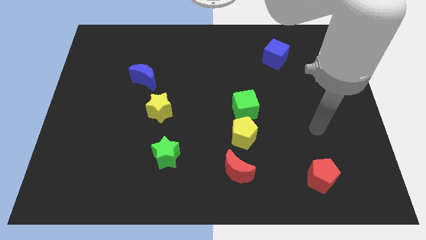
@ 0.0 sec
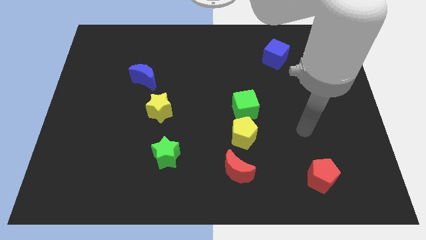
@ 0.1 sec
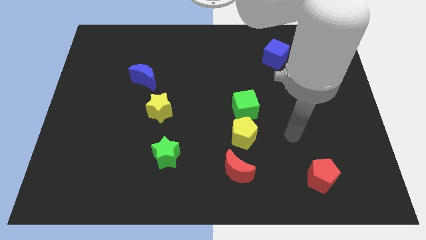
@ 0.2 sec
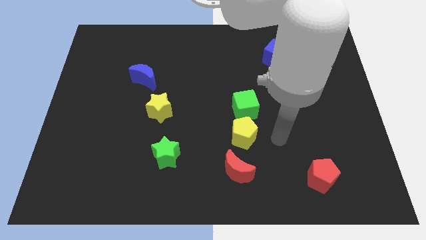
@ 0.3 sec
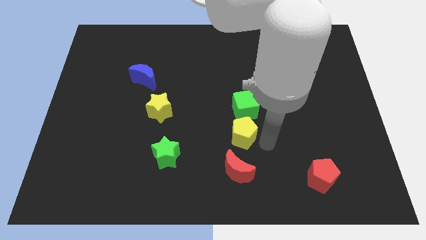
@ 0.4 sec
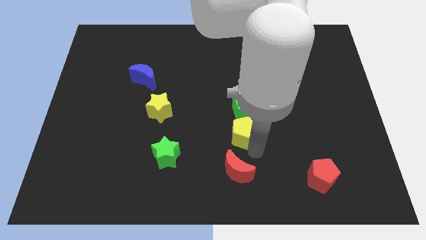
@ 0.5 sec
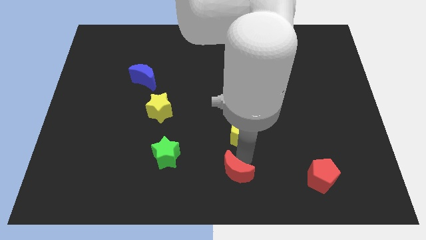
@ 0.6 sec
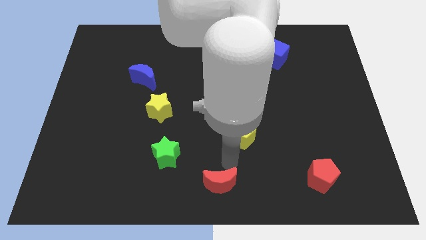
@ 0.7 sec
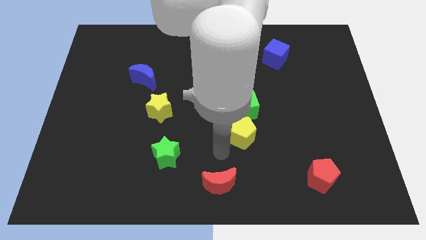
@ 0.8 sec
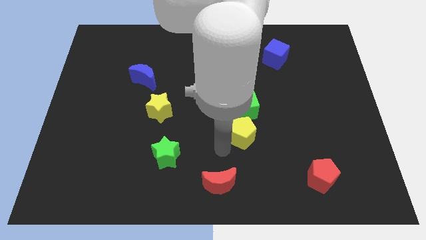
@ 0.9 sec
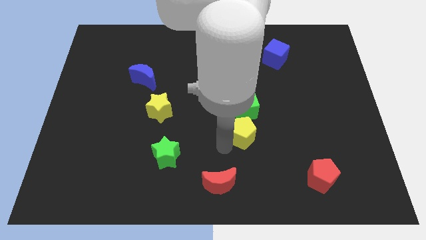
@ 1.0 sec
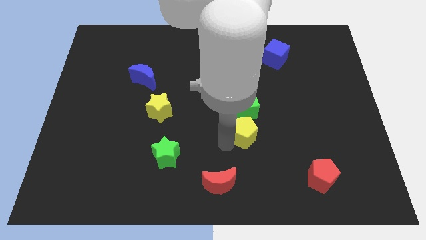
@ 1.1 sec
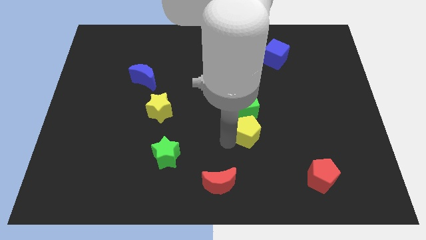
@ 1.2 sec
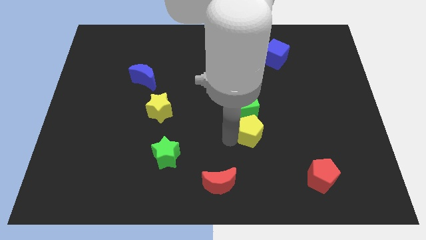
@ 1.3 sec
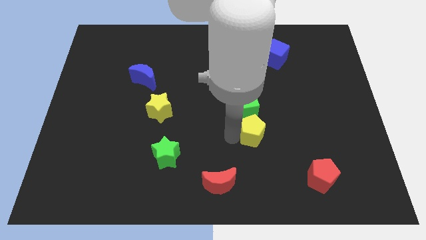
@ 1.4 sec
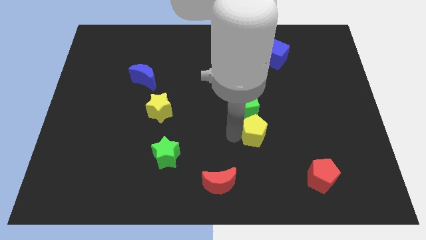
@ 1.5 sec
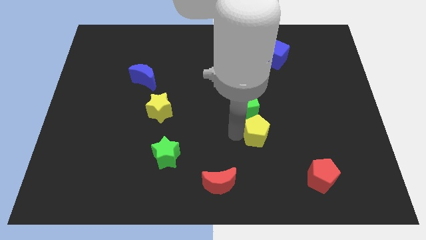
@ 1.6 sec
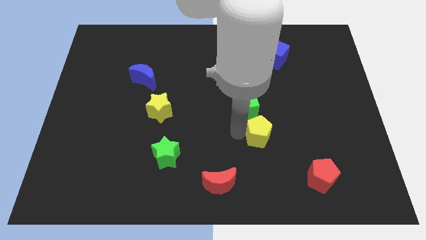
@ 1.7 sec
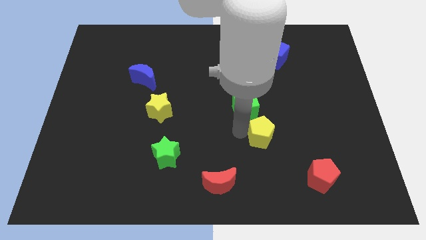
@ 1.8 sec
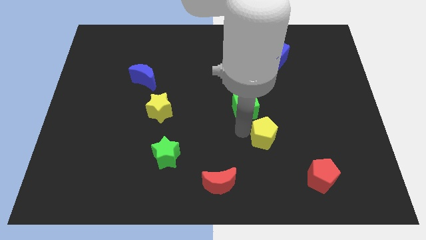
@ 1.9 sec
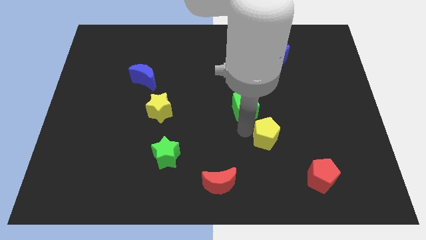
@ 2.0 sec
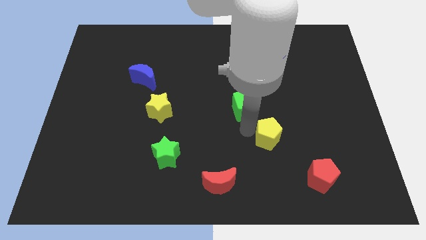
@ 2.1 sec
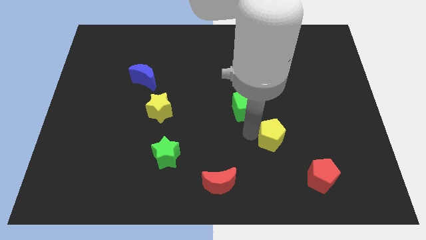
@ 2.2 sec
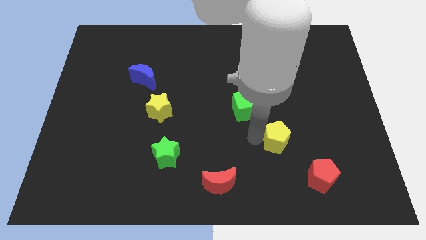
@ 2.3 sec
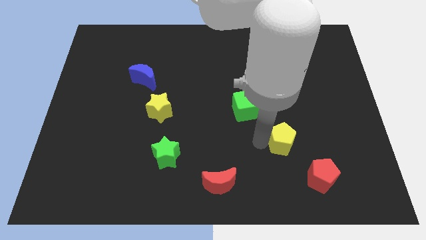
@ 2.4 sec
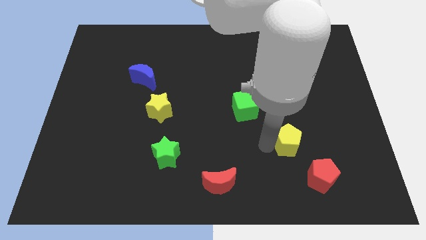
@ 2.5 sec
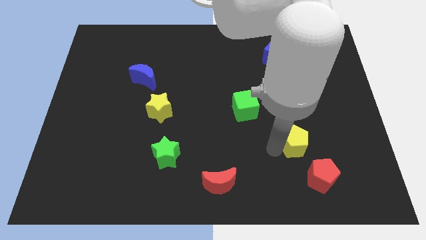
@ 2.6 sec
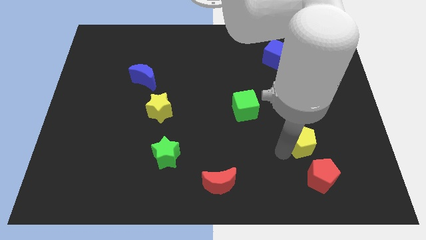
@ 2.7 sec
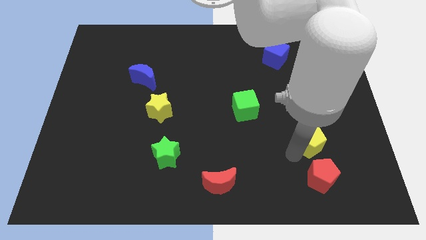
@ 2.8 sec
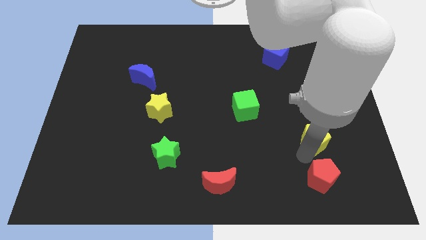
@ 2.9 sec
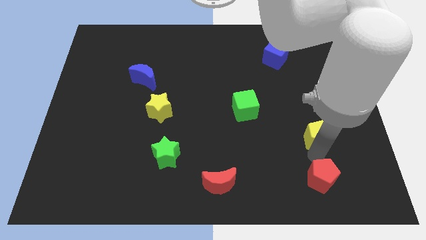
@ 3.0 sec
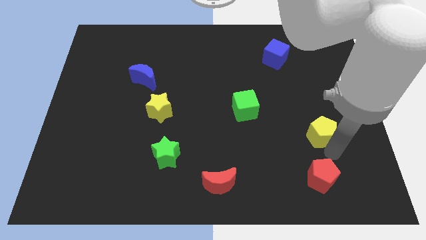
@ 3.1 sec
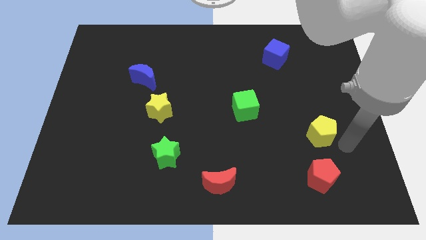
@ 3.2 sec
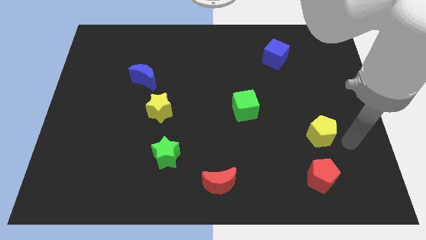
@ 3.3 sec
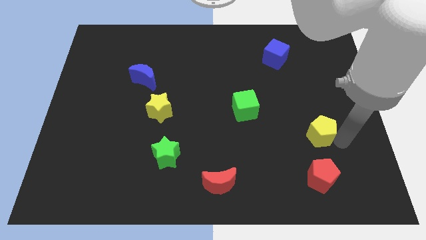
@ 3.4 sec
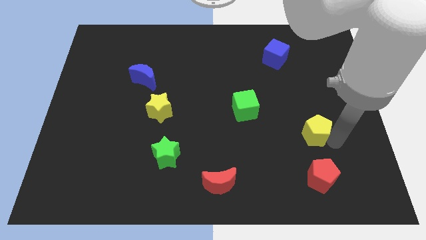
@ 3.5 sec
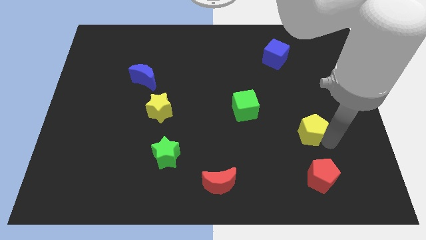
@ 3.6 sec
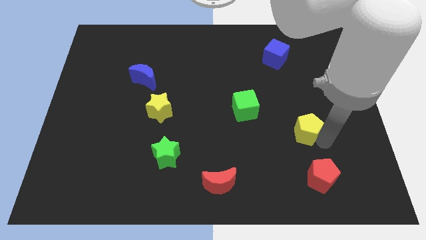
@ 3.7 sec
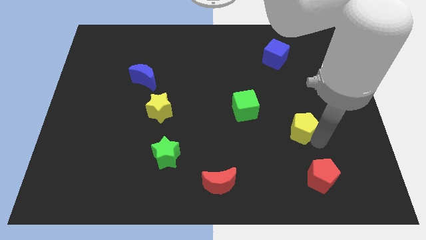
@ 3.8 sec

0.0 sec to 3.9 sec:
slightly push the yellow pentagon upwards and then right

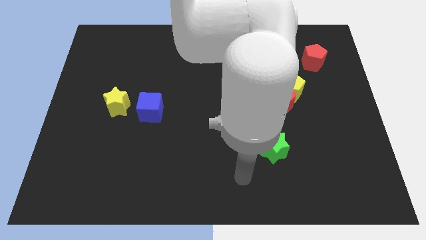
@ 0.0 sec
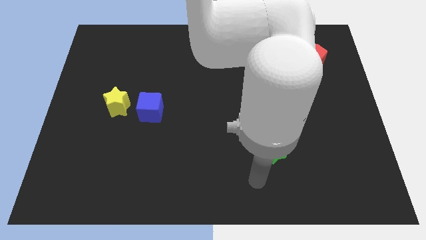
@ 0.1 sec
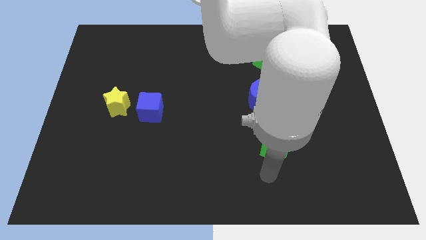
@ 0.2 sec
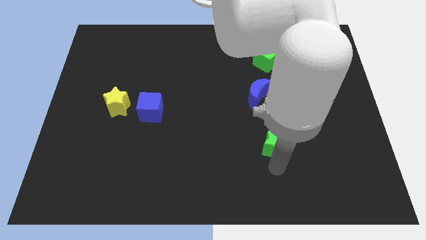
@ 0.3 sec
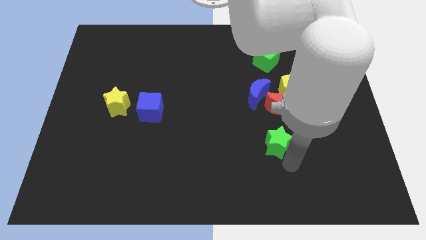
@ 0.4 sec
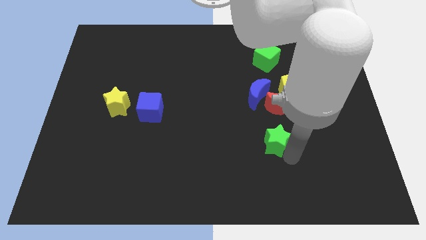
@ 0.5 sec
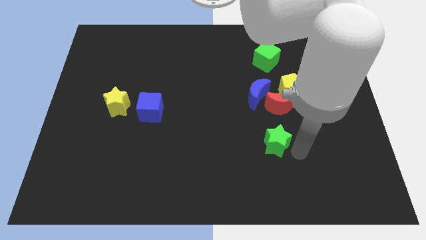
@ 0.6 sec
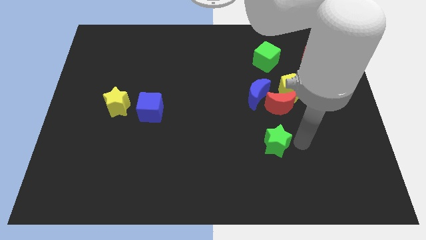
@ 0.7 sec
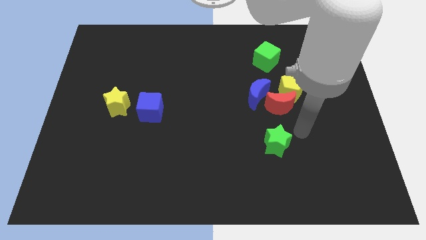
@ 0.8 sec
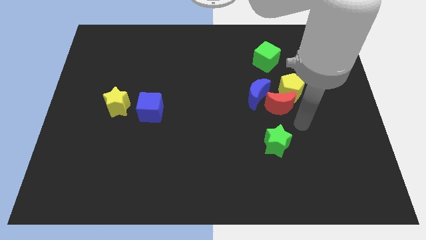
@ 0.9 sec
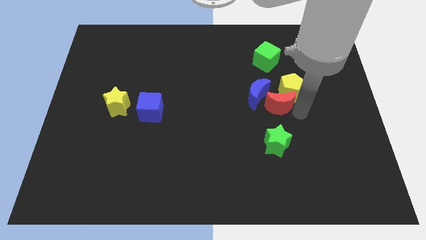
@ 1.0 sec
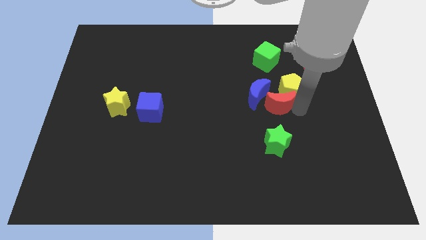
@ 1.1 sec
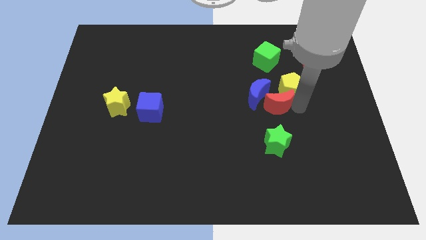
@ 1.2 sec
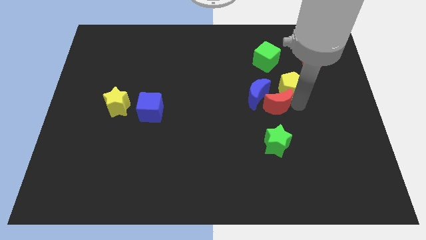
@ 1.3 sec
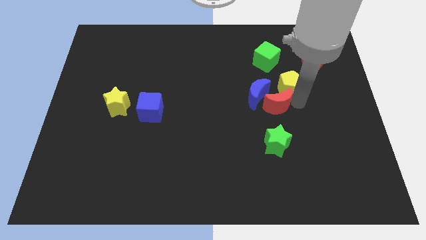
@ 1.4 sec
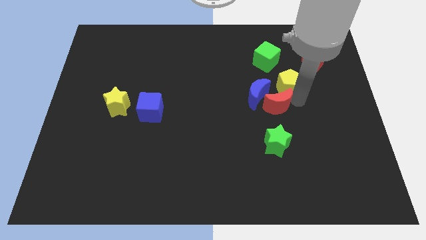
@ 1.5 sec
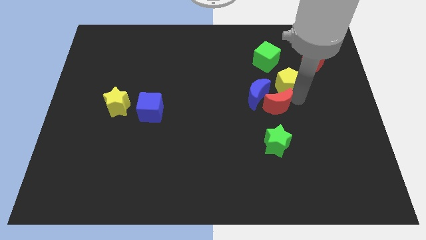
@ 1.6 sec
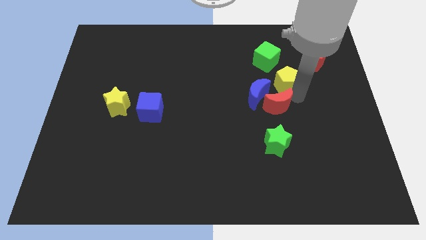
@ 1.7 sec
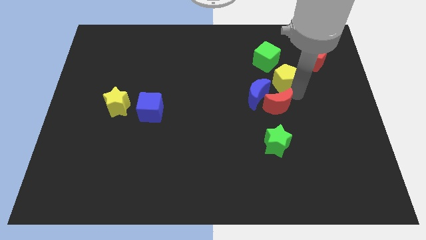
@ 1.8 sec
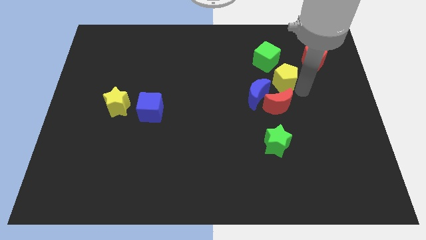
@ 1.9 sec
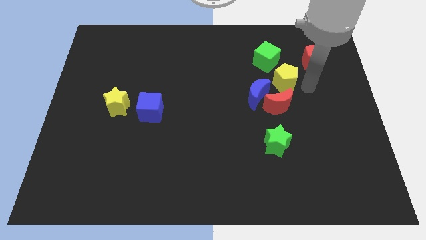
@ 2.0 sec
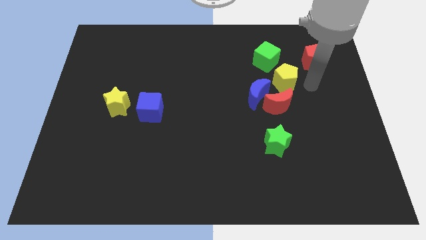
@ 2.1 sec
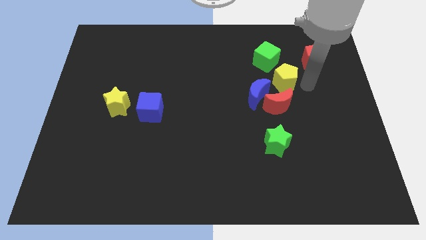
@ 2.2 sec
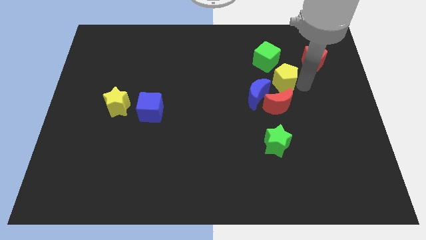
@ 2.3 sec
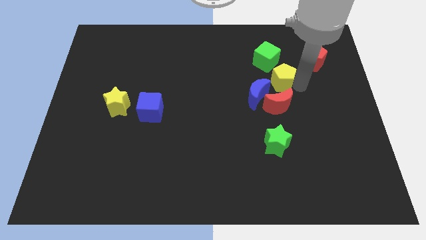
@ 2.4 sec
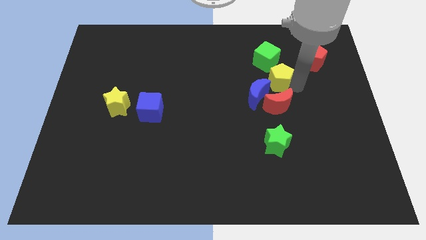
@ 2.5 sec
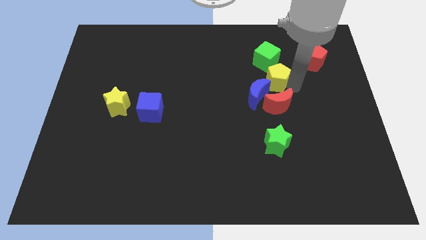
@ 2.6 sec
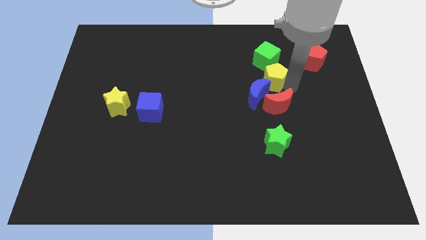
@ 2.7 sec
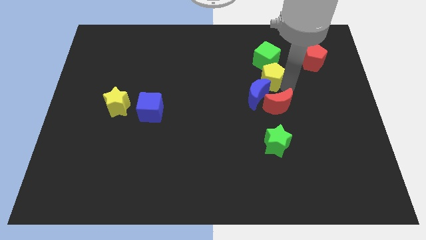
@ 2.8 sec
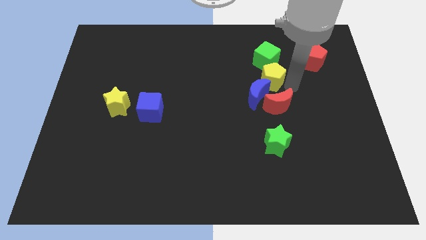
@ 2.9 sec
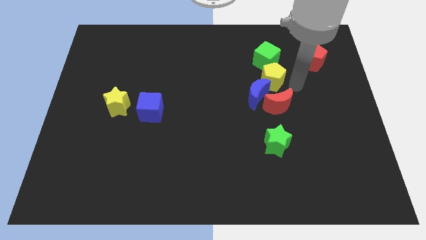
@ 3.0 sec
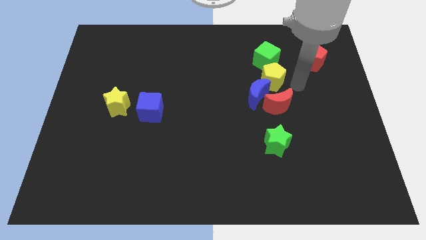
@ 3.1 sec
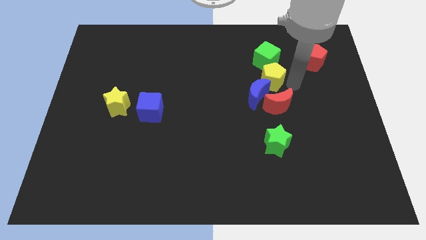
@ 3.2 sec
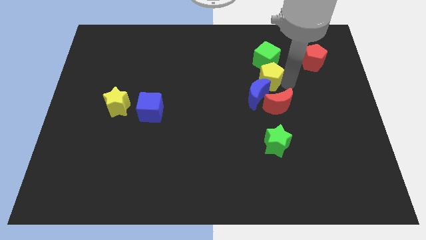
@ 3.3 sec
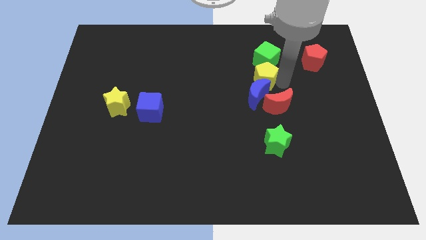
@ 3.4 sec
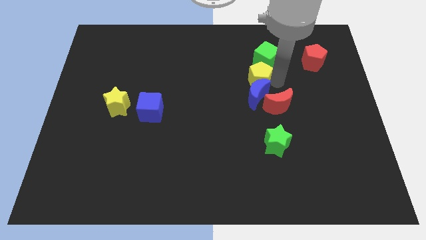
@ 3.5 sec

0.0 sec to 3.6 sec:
move the yellow pentagon to the left a bit

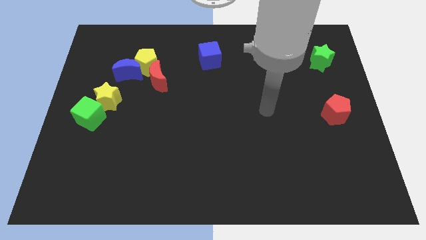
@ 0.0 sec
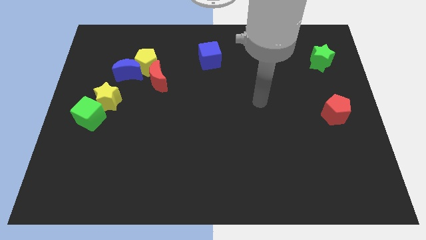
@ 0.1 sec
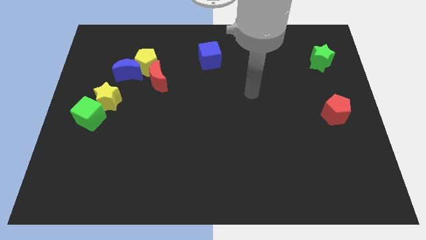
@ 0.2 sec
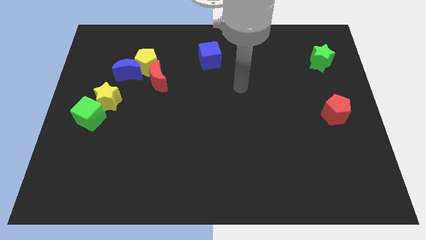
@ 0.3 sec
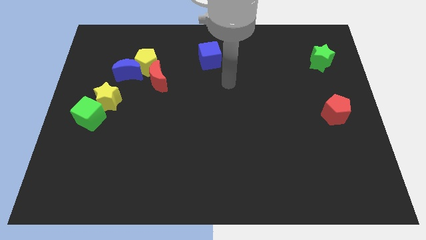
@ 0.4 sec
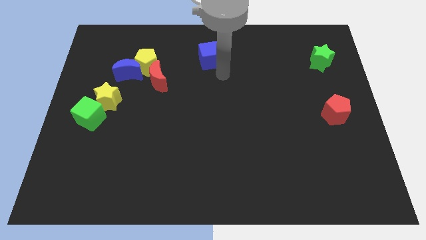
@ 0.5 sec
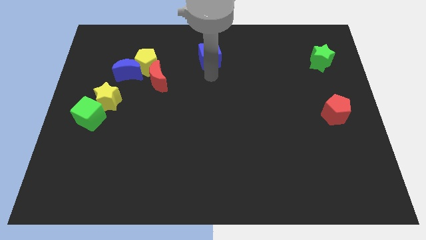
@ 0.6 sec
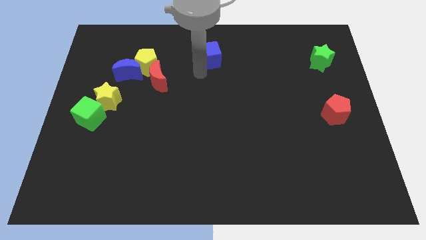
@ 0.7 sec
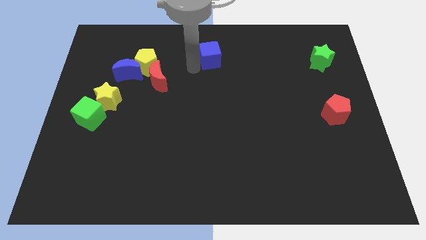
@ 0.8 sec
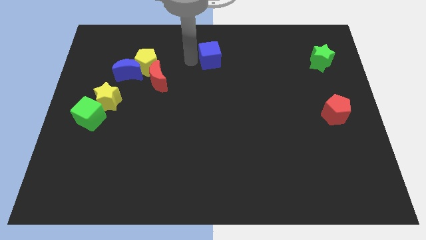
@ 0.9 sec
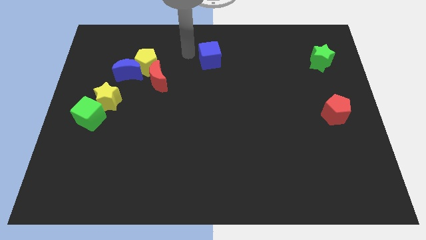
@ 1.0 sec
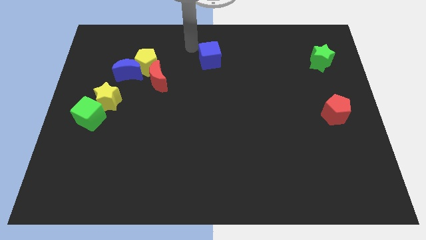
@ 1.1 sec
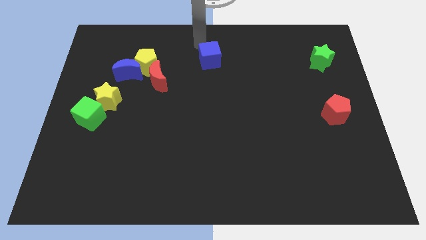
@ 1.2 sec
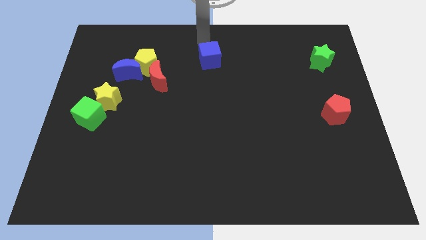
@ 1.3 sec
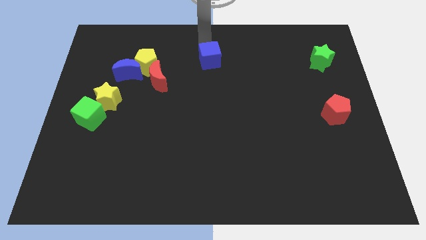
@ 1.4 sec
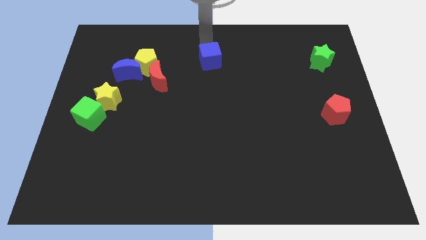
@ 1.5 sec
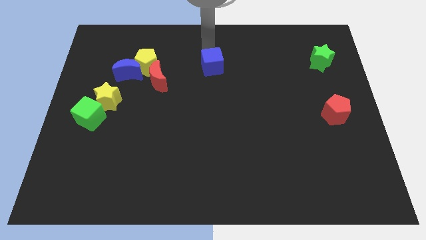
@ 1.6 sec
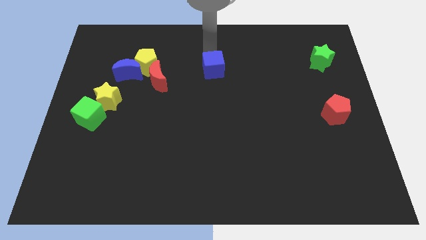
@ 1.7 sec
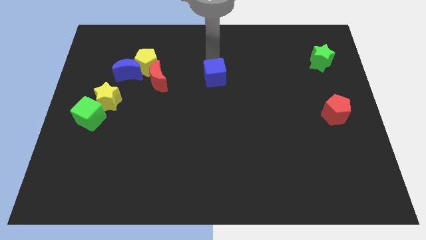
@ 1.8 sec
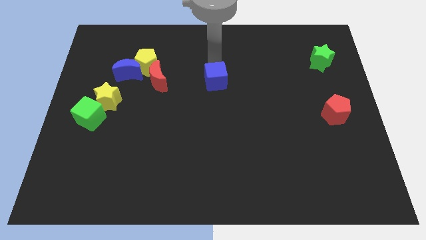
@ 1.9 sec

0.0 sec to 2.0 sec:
move the blue cube a little down
